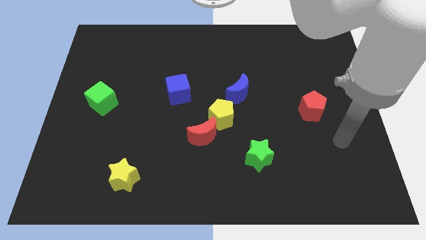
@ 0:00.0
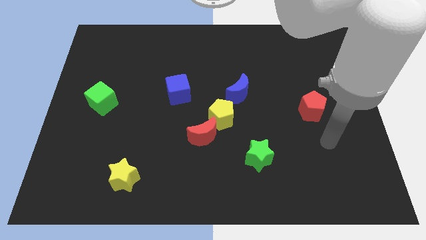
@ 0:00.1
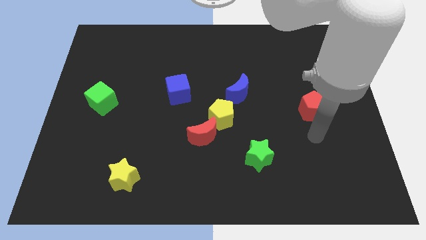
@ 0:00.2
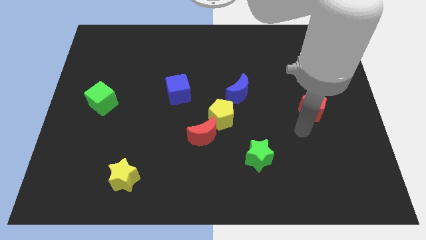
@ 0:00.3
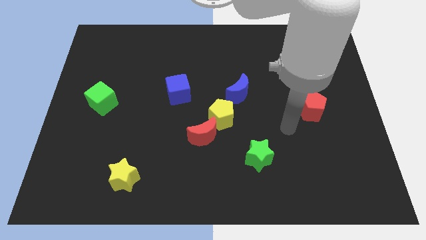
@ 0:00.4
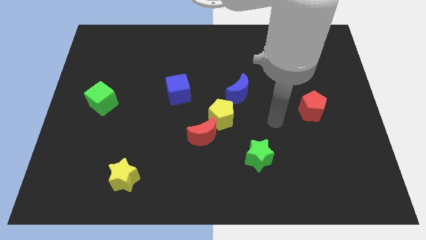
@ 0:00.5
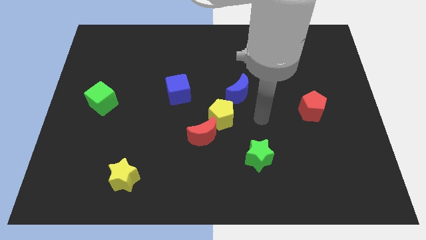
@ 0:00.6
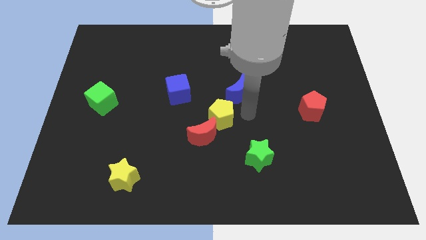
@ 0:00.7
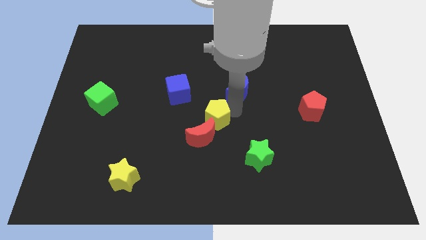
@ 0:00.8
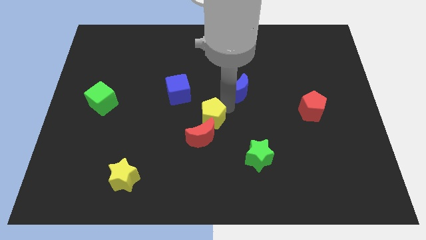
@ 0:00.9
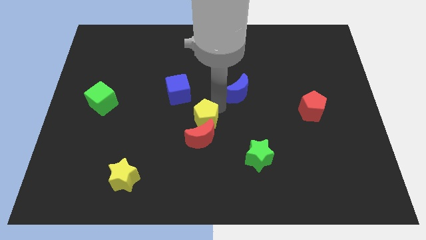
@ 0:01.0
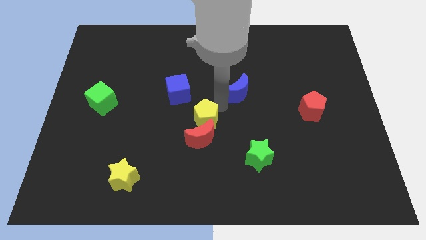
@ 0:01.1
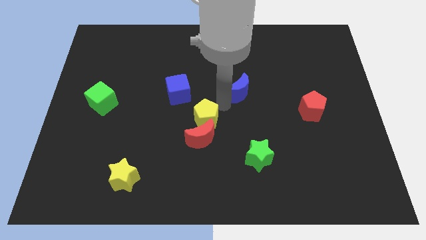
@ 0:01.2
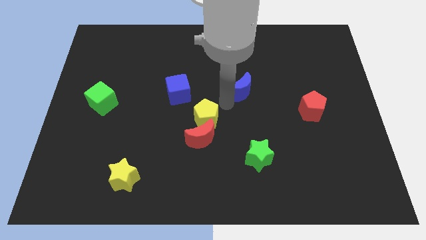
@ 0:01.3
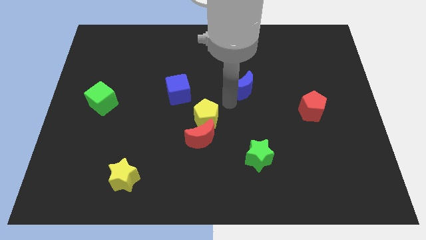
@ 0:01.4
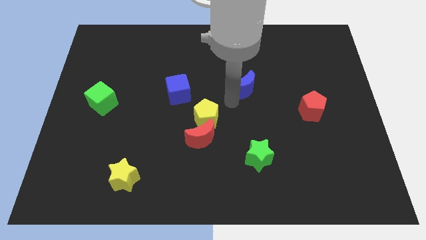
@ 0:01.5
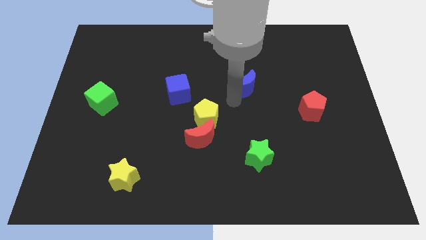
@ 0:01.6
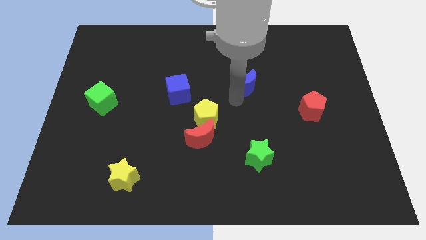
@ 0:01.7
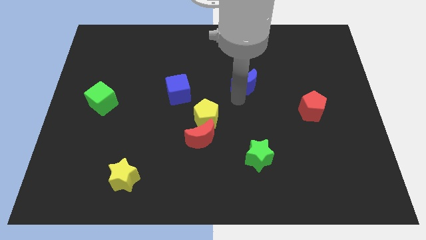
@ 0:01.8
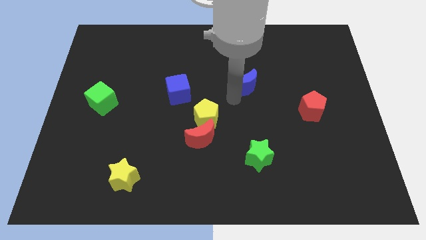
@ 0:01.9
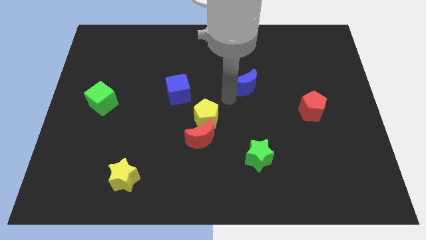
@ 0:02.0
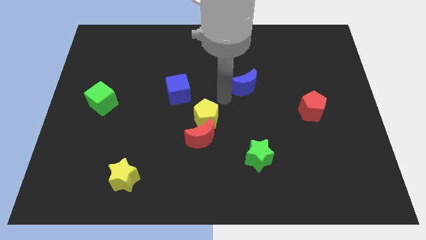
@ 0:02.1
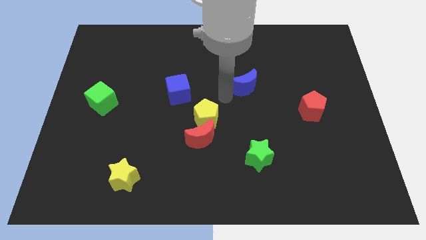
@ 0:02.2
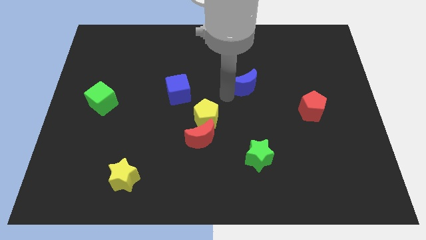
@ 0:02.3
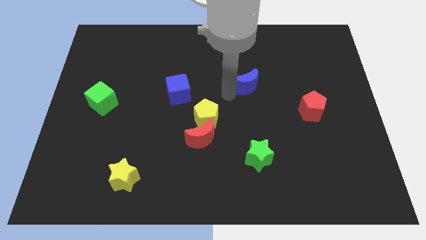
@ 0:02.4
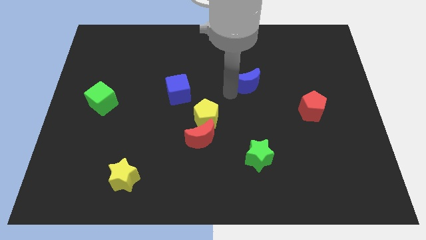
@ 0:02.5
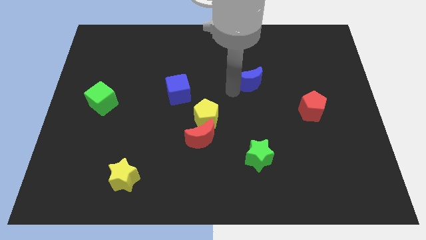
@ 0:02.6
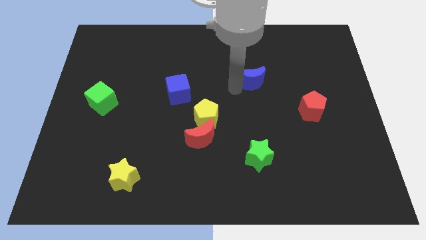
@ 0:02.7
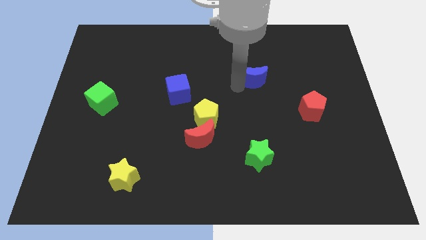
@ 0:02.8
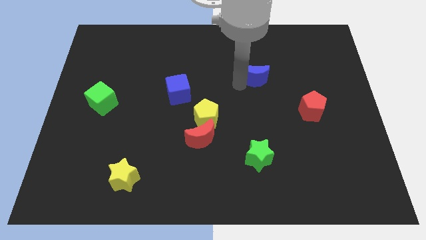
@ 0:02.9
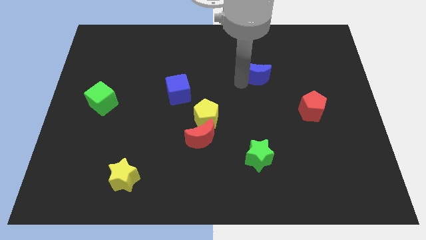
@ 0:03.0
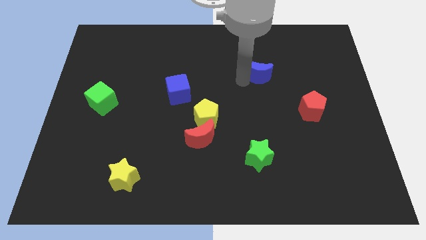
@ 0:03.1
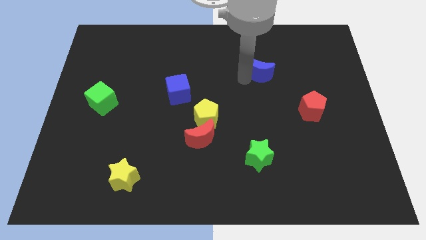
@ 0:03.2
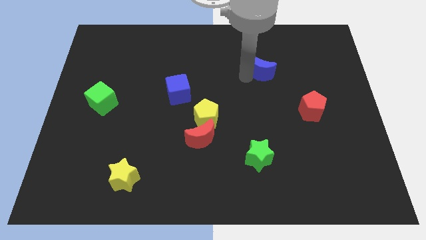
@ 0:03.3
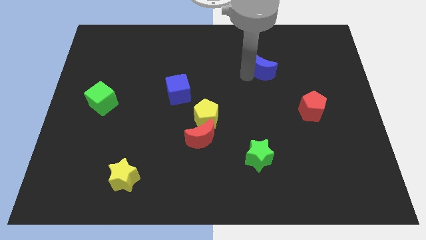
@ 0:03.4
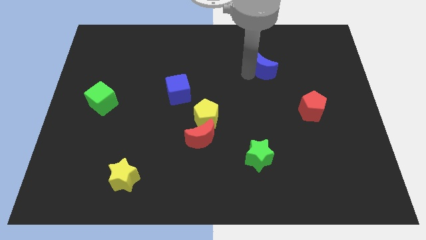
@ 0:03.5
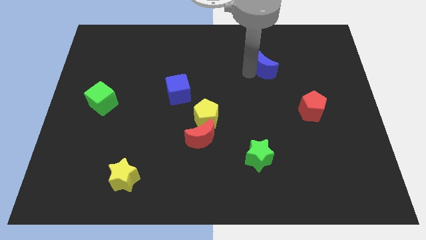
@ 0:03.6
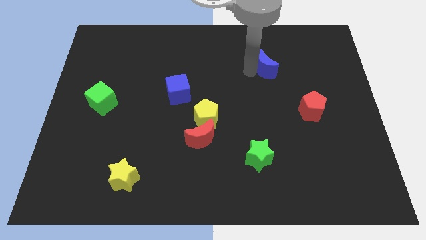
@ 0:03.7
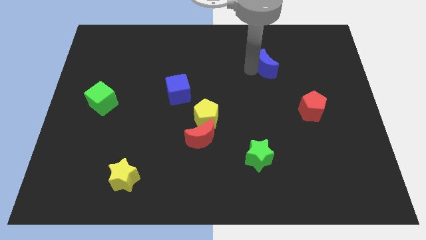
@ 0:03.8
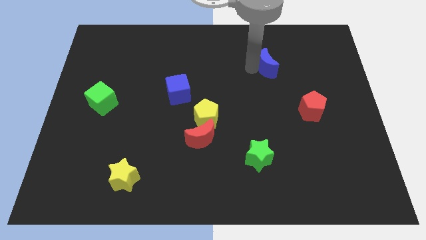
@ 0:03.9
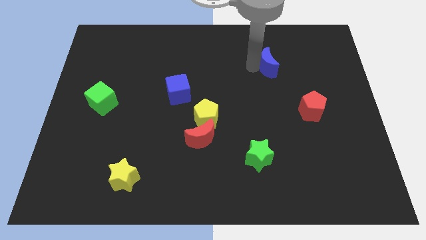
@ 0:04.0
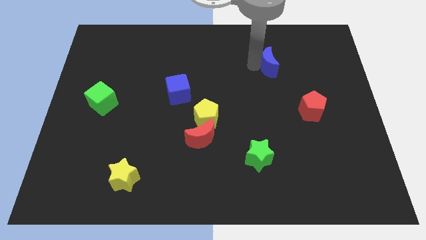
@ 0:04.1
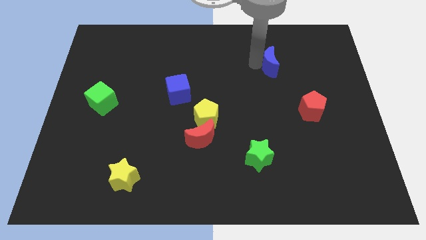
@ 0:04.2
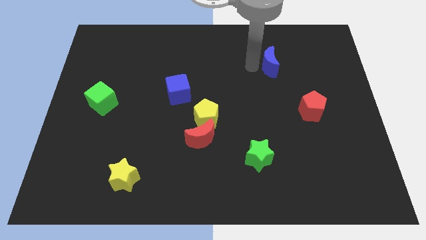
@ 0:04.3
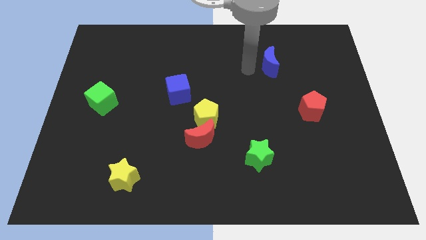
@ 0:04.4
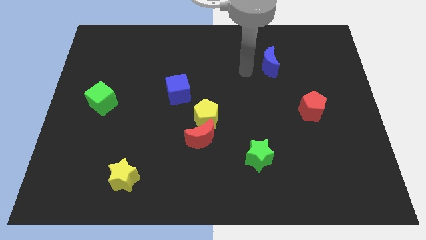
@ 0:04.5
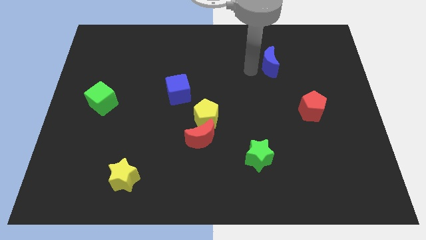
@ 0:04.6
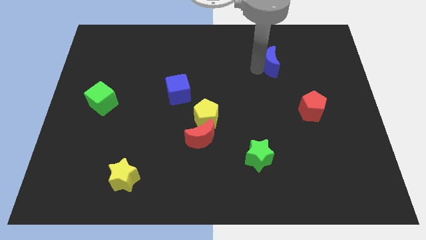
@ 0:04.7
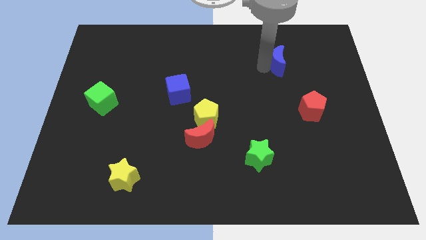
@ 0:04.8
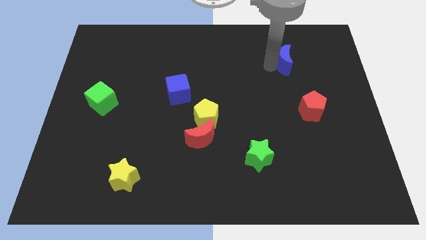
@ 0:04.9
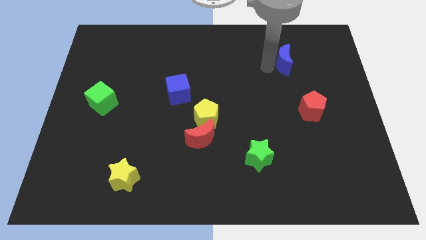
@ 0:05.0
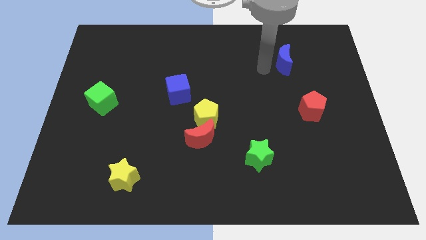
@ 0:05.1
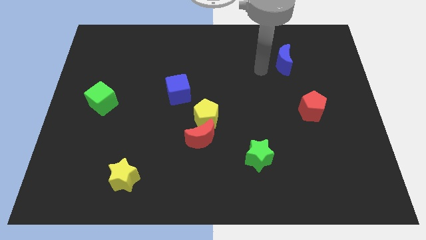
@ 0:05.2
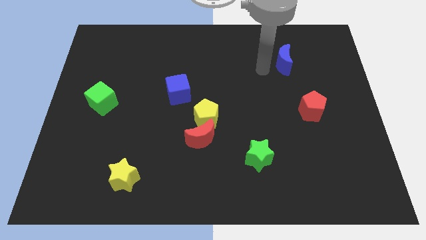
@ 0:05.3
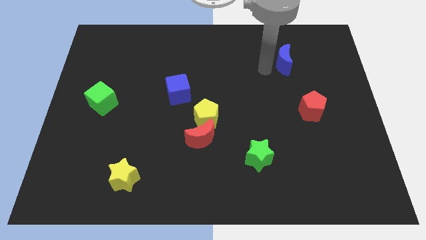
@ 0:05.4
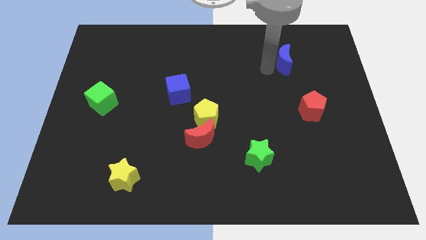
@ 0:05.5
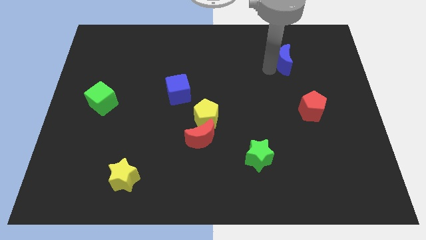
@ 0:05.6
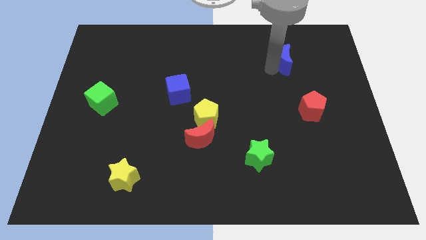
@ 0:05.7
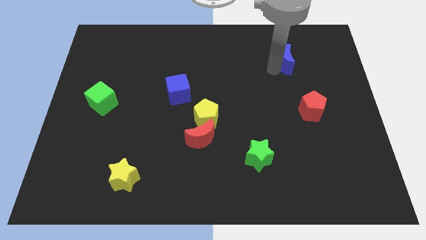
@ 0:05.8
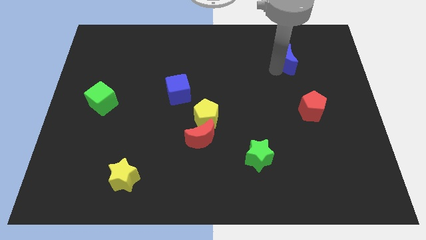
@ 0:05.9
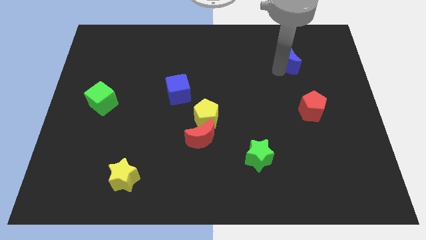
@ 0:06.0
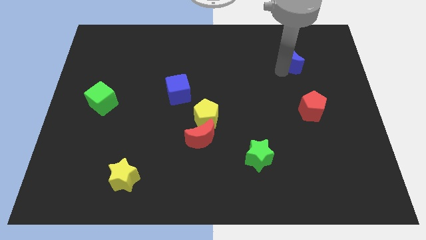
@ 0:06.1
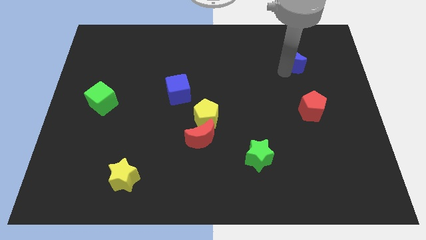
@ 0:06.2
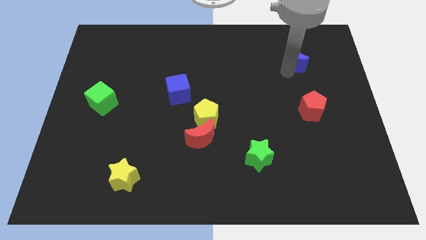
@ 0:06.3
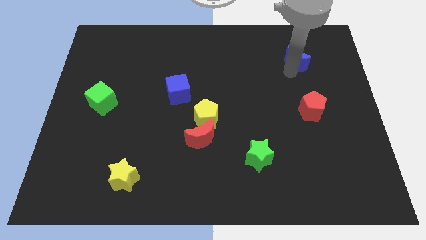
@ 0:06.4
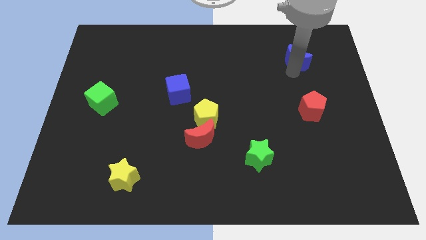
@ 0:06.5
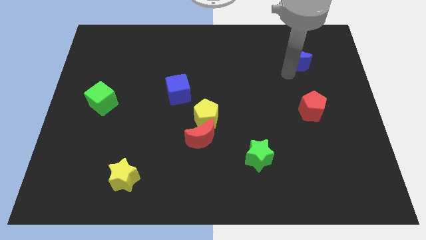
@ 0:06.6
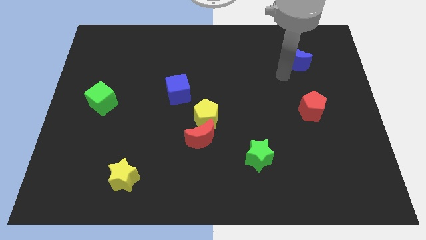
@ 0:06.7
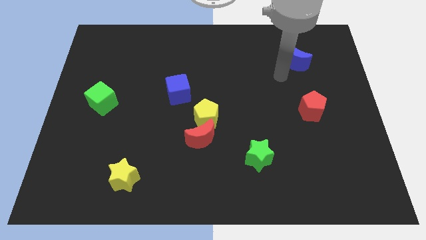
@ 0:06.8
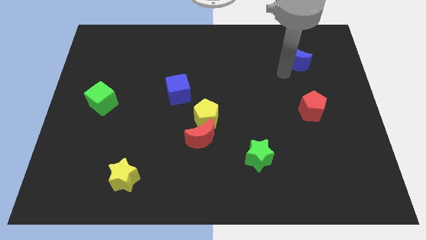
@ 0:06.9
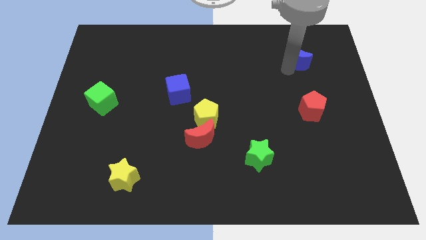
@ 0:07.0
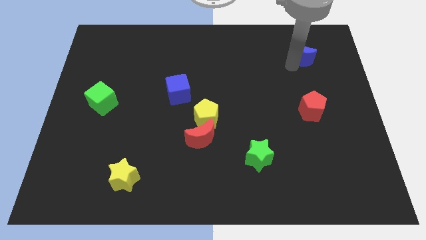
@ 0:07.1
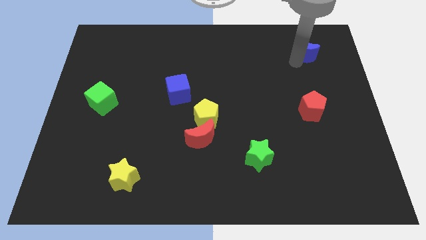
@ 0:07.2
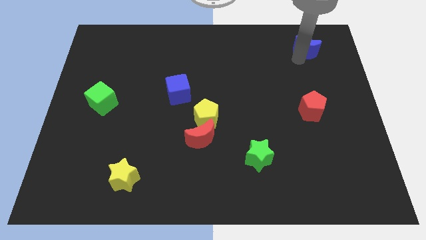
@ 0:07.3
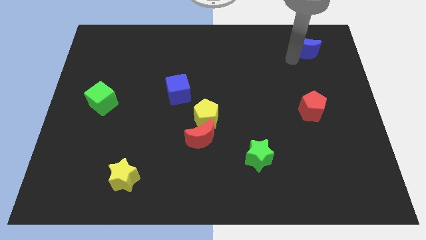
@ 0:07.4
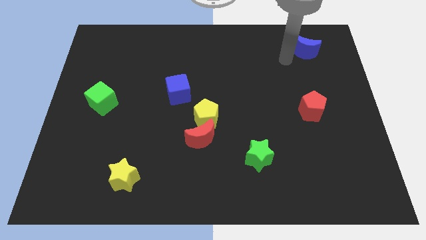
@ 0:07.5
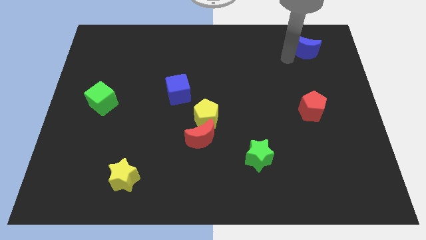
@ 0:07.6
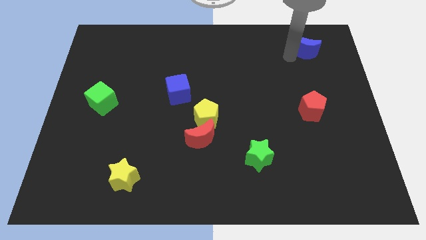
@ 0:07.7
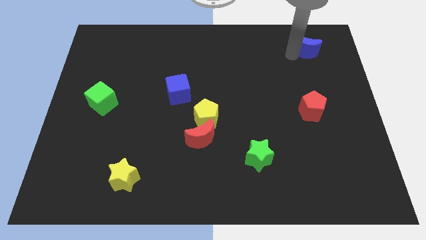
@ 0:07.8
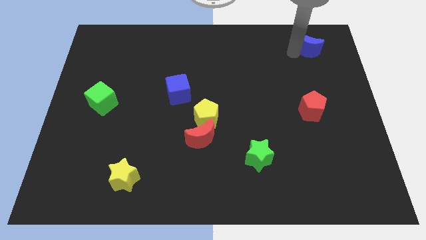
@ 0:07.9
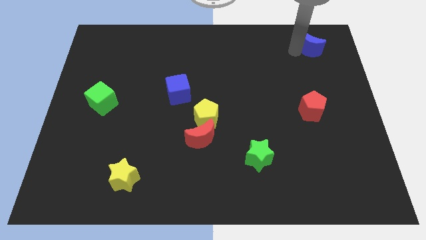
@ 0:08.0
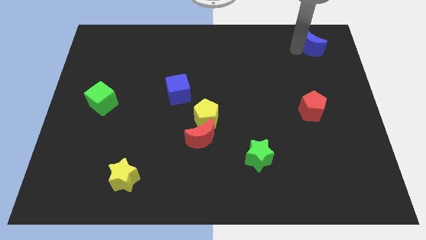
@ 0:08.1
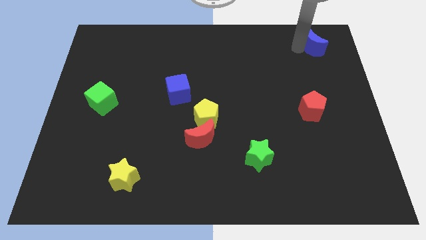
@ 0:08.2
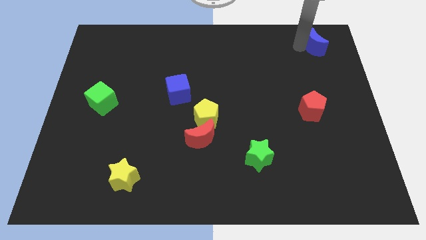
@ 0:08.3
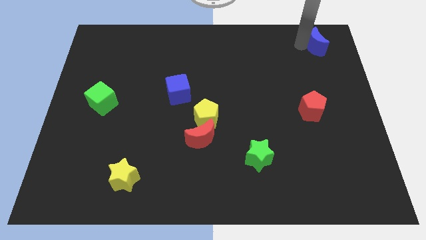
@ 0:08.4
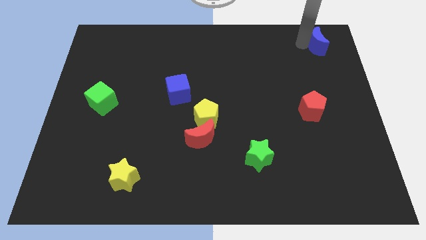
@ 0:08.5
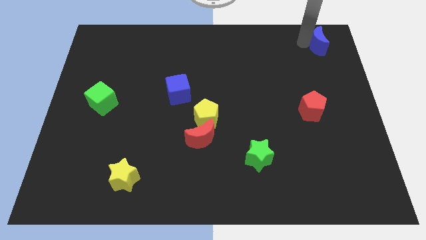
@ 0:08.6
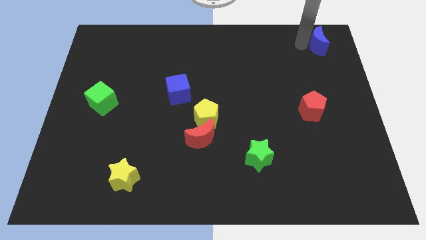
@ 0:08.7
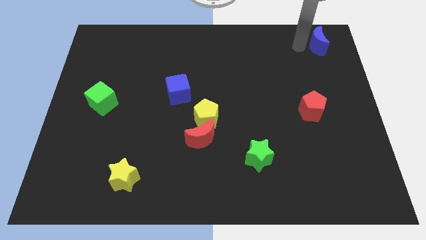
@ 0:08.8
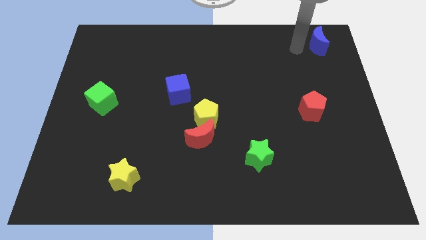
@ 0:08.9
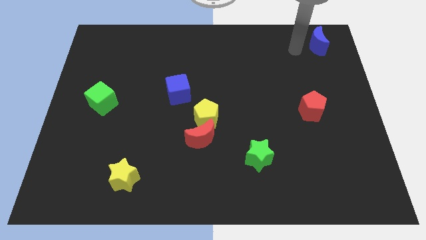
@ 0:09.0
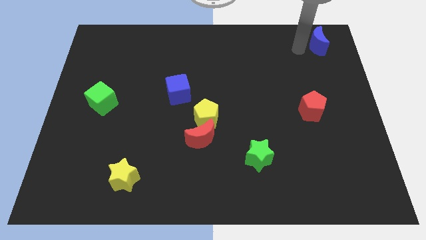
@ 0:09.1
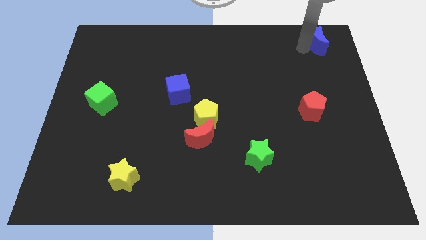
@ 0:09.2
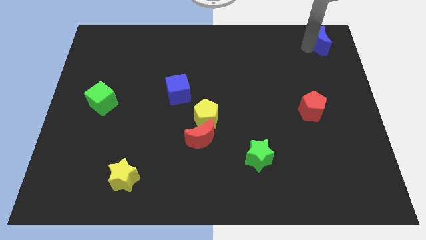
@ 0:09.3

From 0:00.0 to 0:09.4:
push the blue moon to the top right
